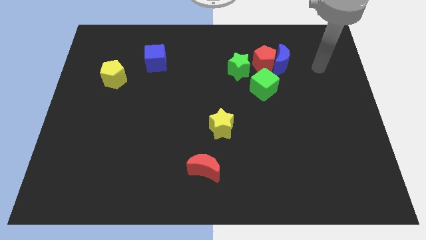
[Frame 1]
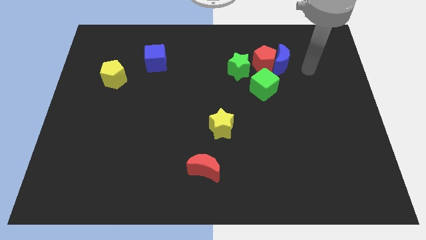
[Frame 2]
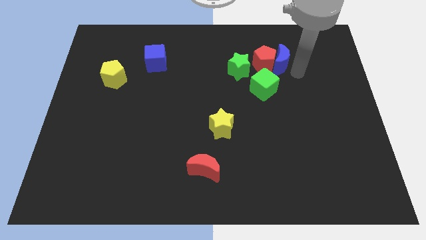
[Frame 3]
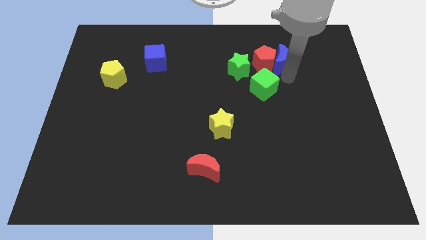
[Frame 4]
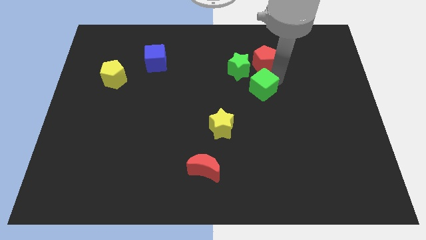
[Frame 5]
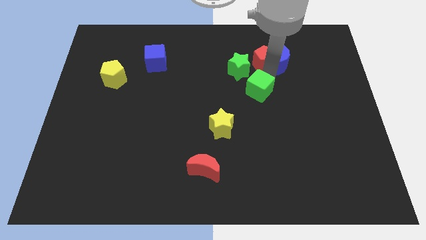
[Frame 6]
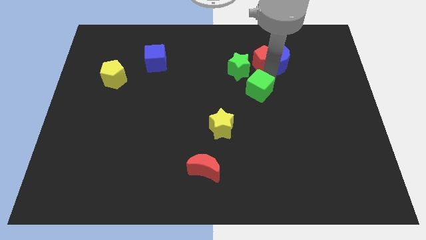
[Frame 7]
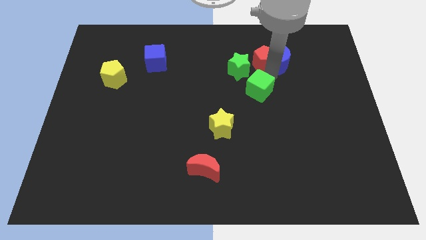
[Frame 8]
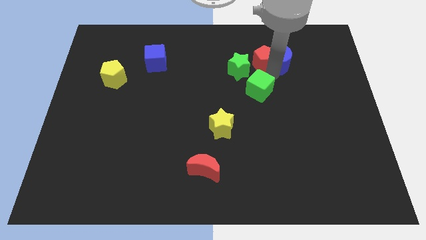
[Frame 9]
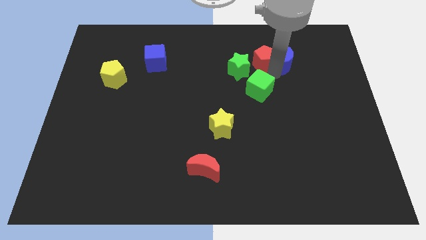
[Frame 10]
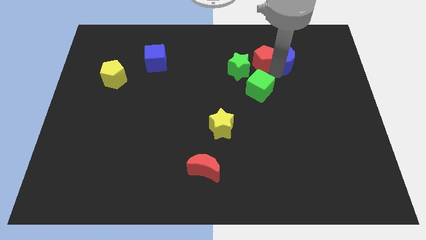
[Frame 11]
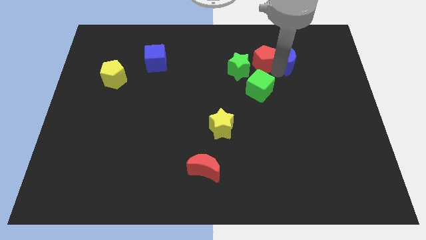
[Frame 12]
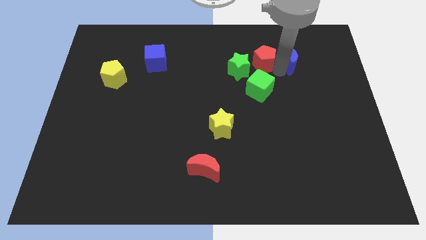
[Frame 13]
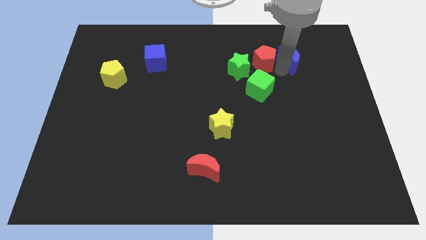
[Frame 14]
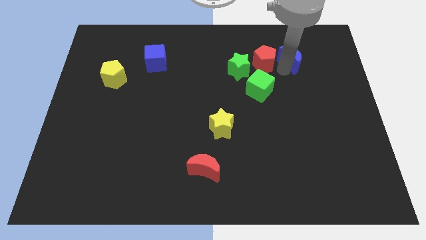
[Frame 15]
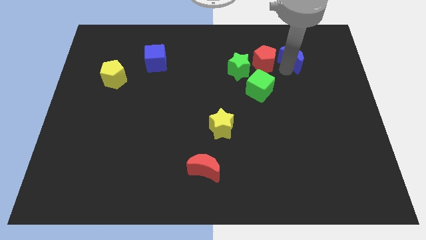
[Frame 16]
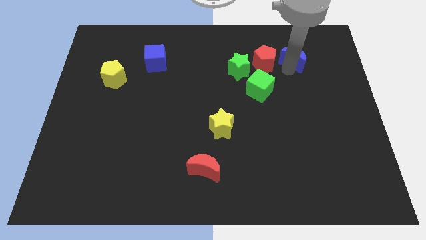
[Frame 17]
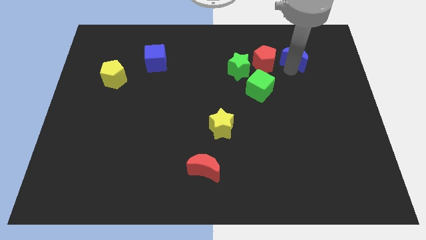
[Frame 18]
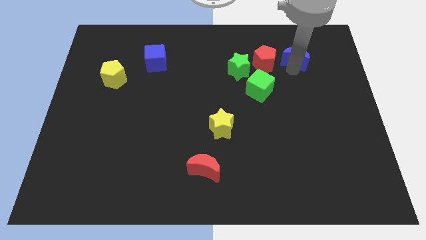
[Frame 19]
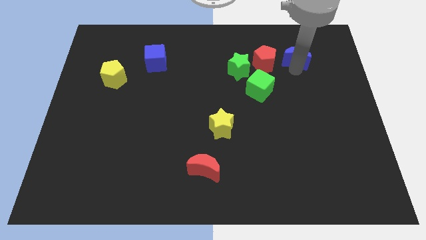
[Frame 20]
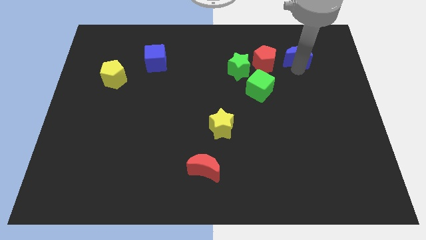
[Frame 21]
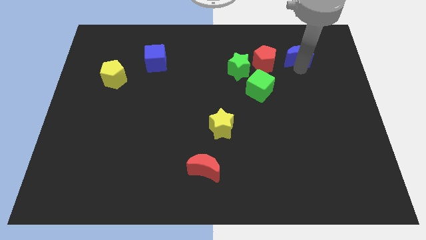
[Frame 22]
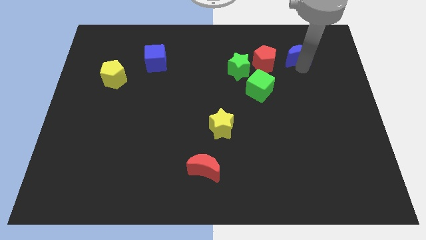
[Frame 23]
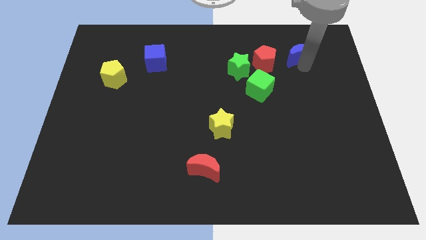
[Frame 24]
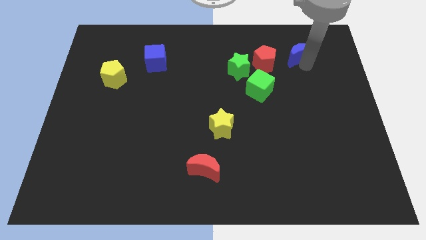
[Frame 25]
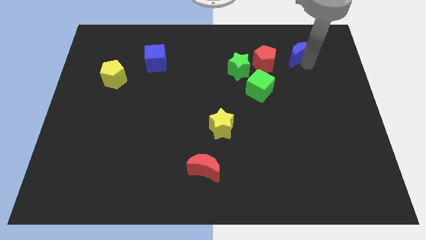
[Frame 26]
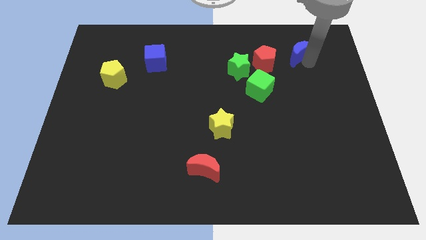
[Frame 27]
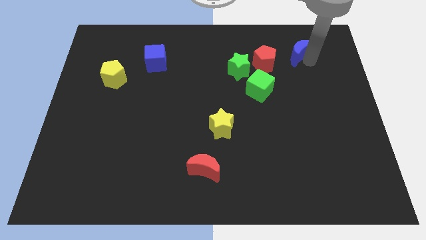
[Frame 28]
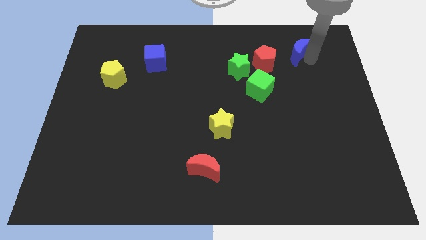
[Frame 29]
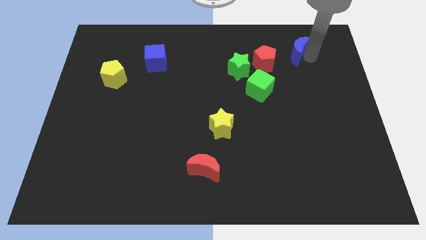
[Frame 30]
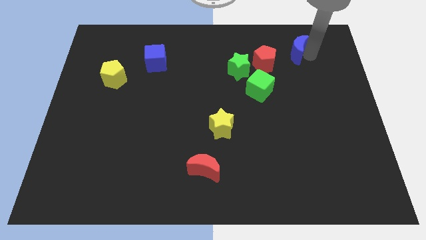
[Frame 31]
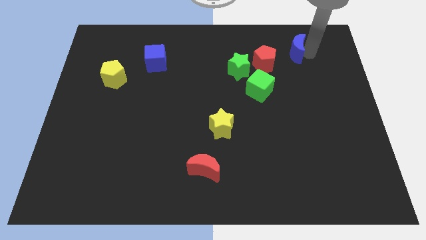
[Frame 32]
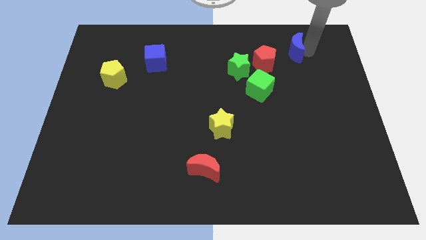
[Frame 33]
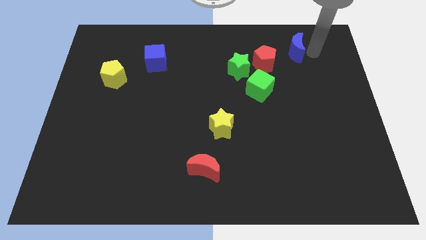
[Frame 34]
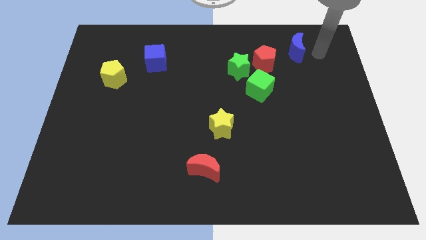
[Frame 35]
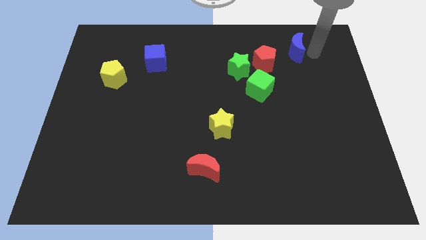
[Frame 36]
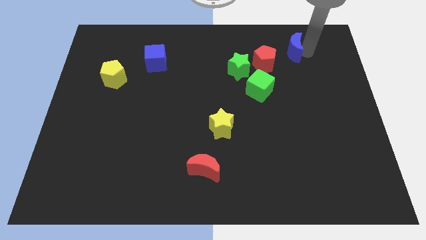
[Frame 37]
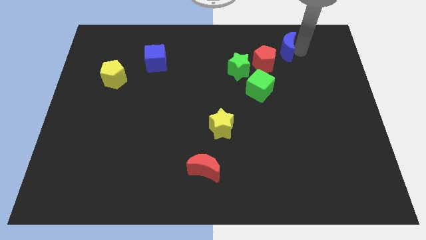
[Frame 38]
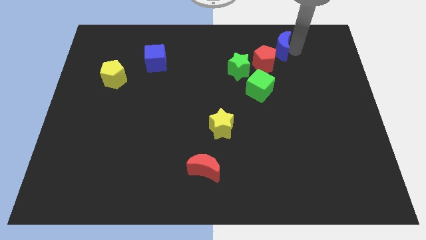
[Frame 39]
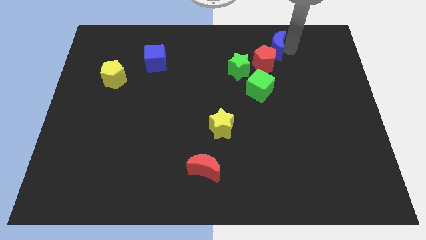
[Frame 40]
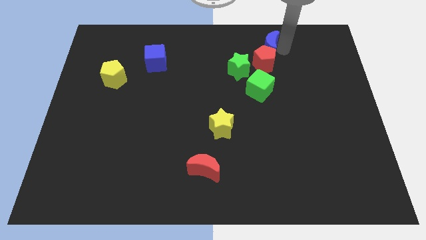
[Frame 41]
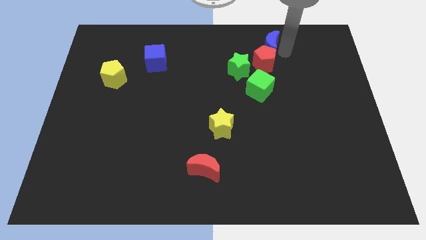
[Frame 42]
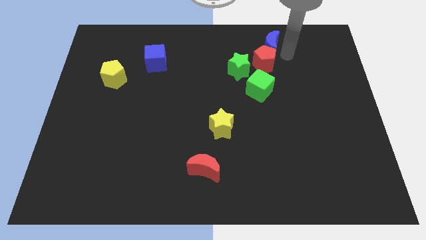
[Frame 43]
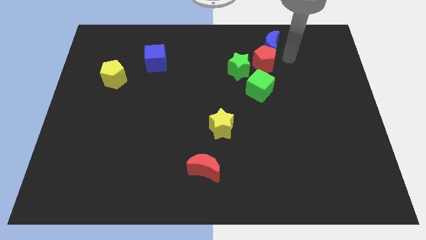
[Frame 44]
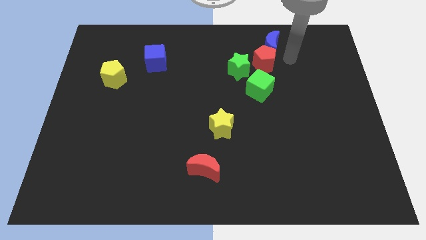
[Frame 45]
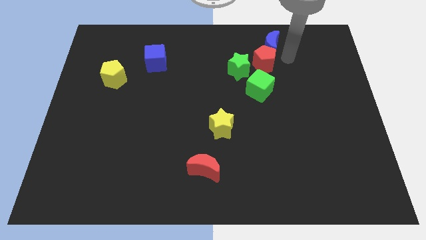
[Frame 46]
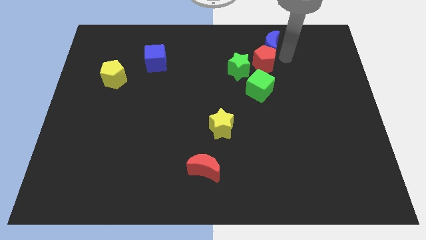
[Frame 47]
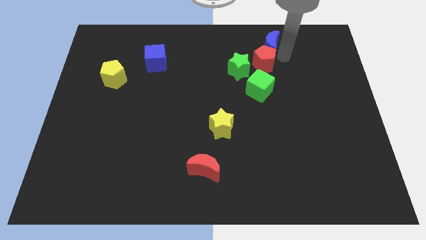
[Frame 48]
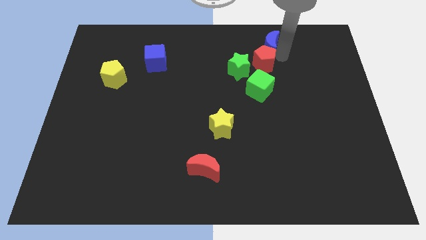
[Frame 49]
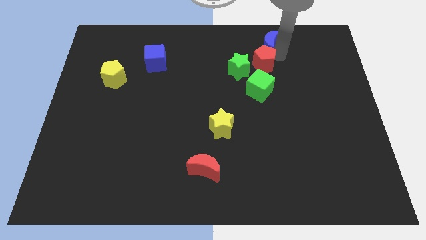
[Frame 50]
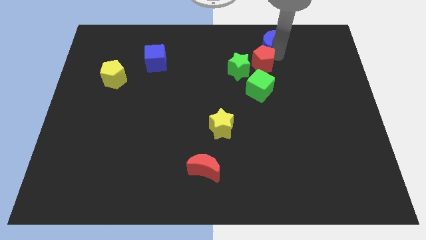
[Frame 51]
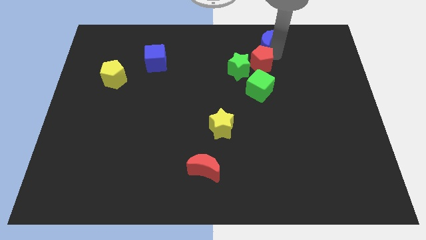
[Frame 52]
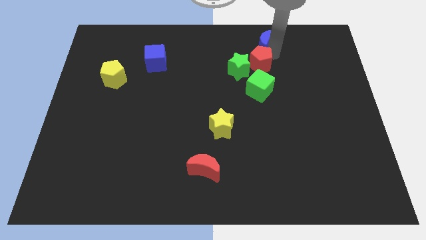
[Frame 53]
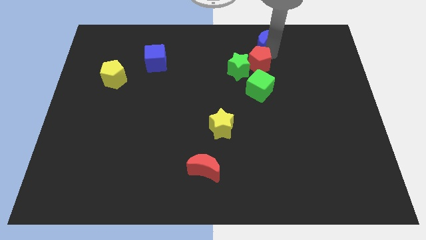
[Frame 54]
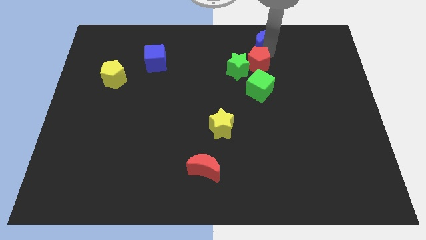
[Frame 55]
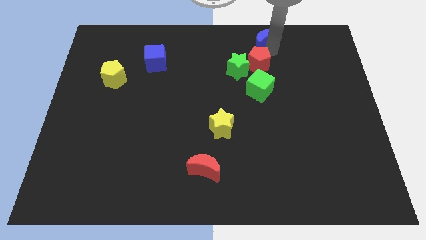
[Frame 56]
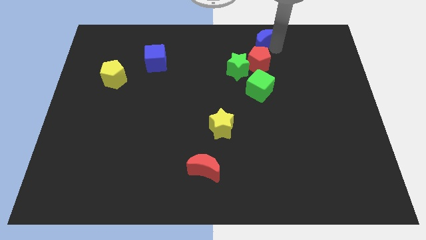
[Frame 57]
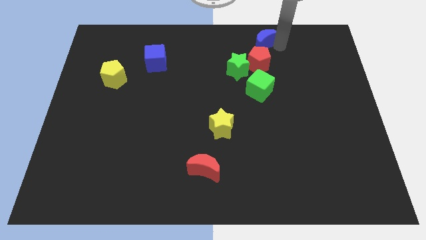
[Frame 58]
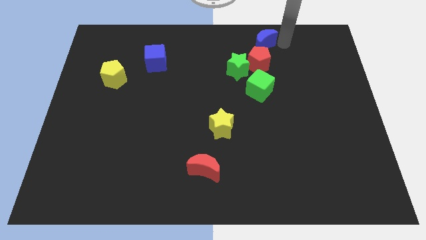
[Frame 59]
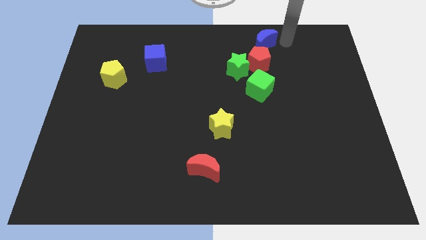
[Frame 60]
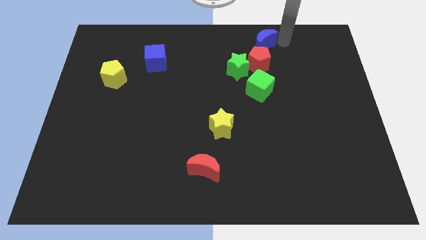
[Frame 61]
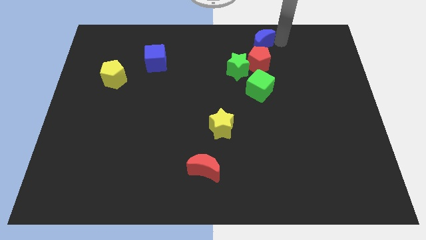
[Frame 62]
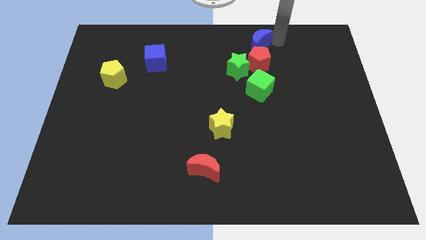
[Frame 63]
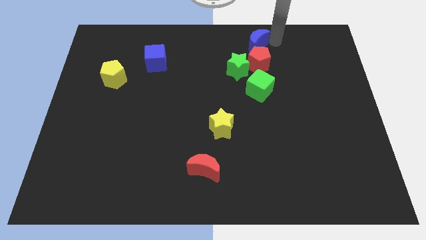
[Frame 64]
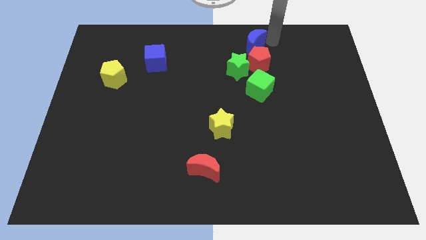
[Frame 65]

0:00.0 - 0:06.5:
slide the blue moon to the top

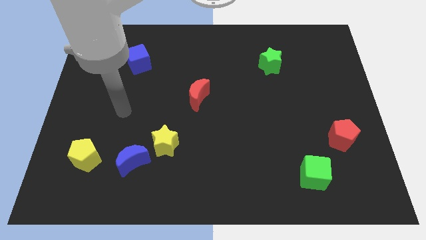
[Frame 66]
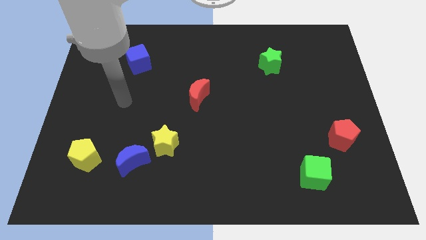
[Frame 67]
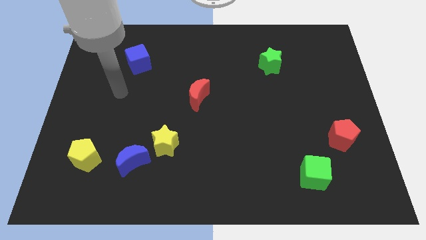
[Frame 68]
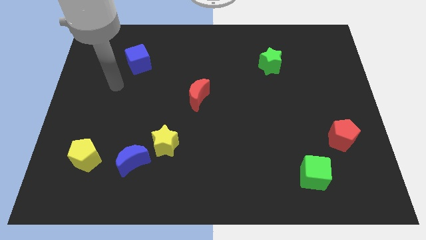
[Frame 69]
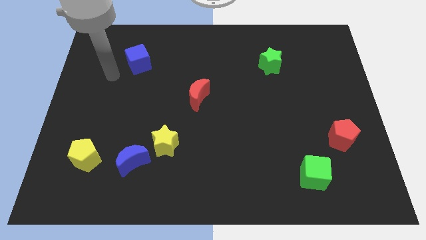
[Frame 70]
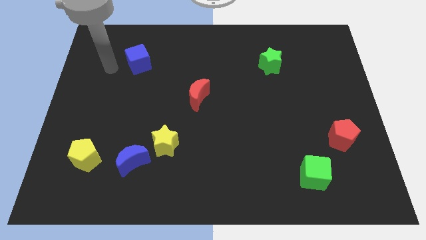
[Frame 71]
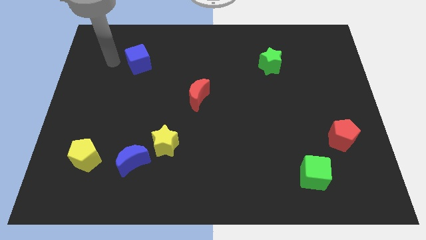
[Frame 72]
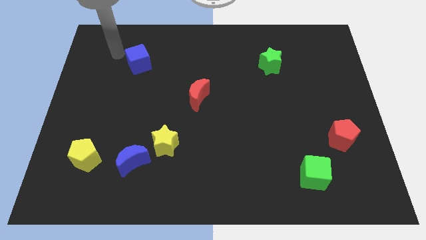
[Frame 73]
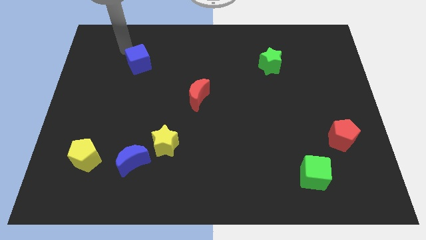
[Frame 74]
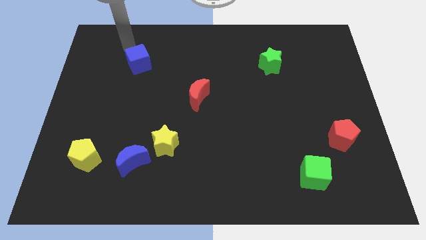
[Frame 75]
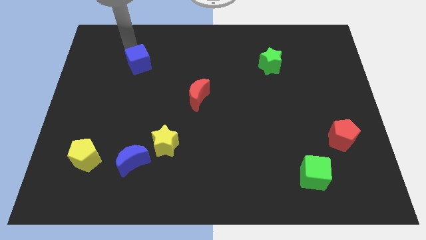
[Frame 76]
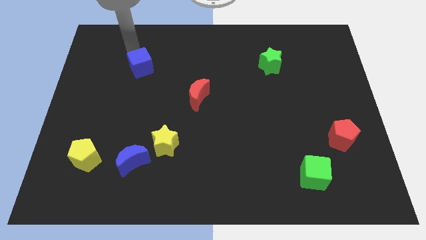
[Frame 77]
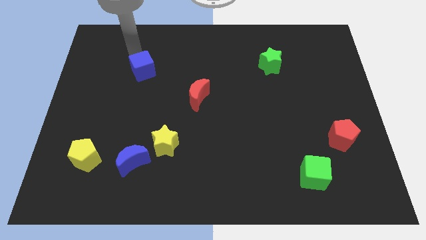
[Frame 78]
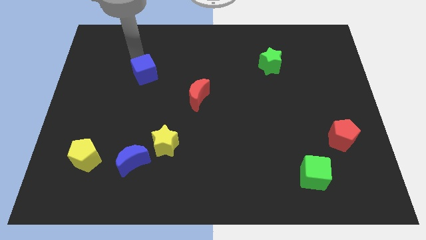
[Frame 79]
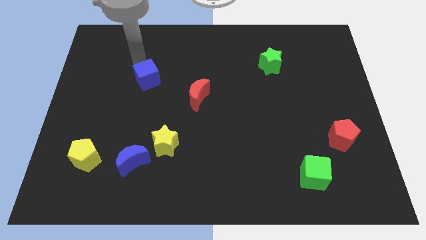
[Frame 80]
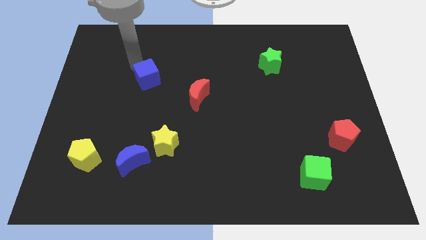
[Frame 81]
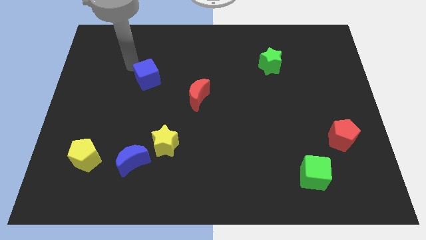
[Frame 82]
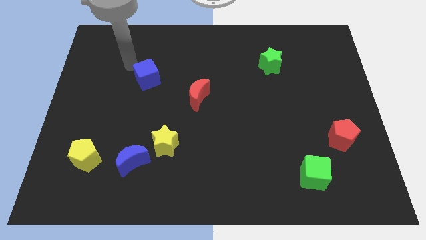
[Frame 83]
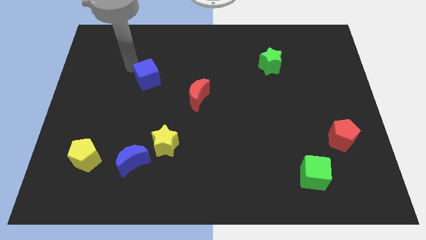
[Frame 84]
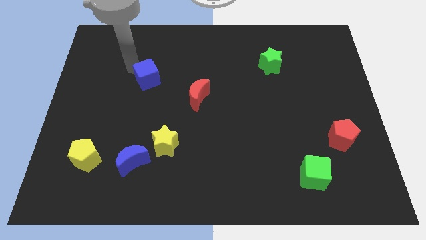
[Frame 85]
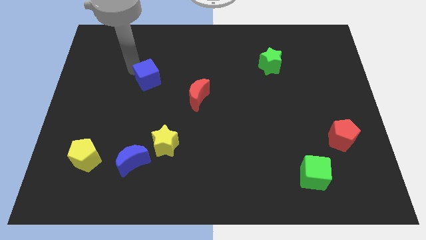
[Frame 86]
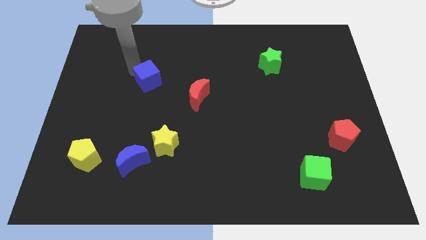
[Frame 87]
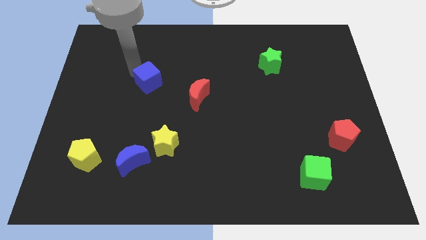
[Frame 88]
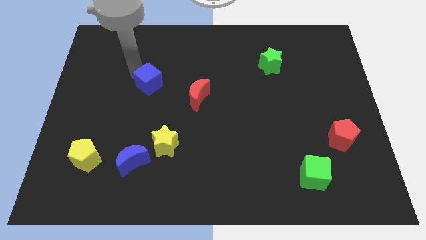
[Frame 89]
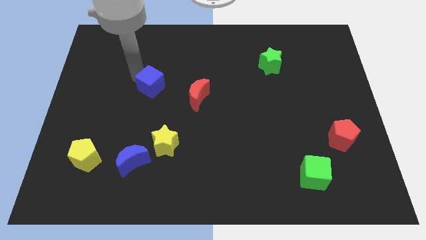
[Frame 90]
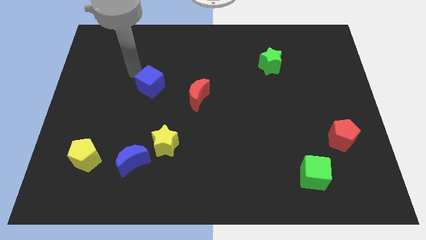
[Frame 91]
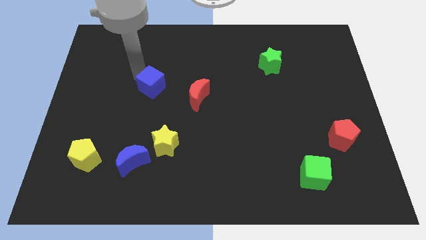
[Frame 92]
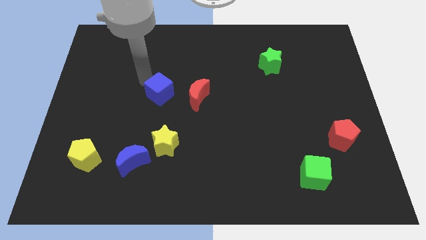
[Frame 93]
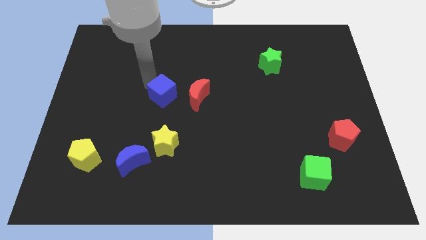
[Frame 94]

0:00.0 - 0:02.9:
push the blue cube to the center of the board
